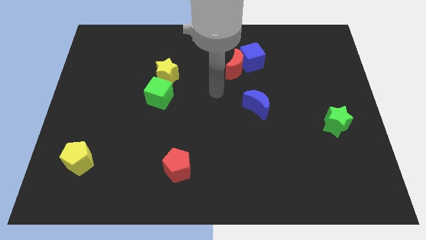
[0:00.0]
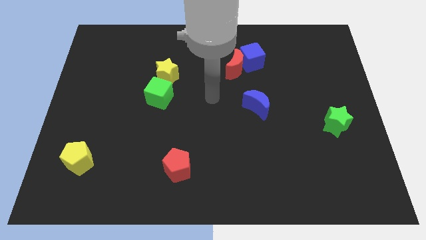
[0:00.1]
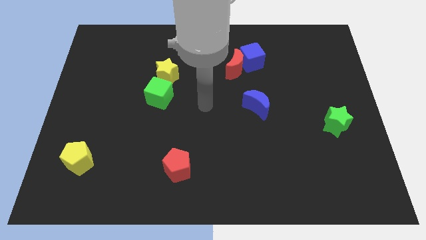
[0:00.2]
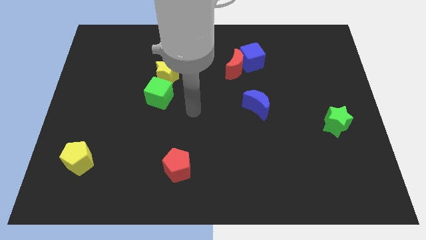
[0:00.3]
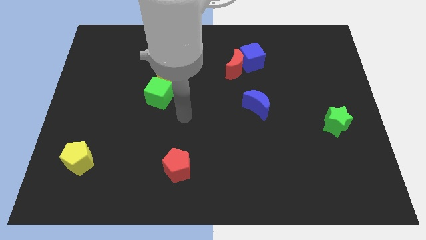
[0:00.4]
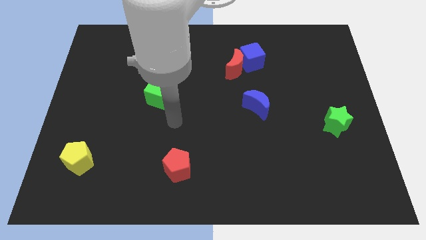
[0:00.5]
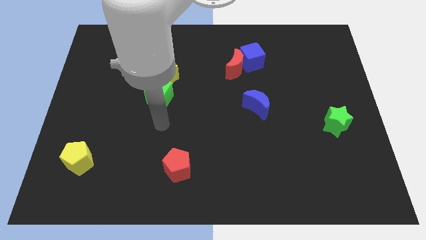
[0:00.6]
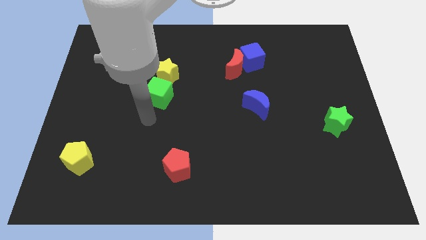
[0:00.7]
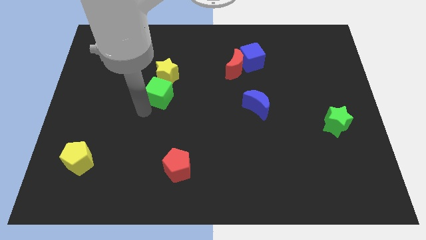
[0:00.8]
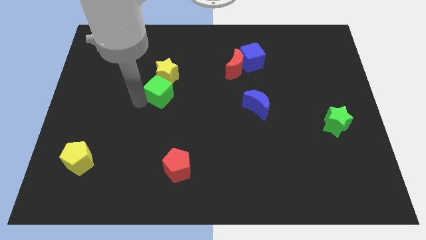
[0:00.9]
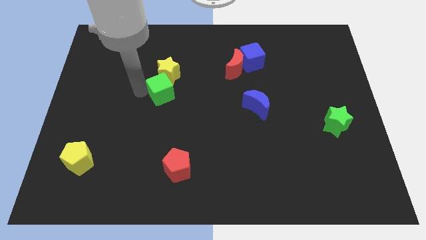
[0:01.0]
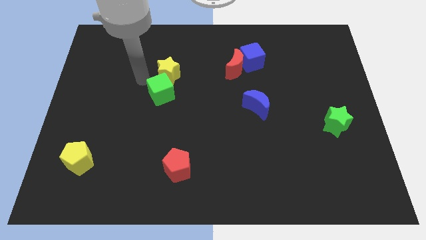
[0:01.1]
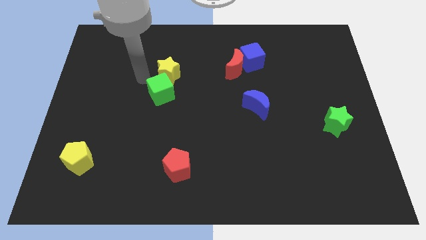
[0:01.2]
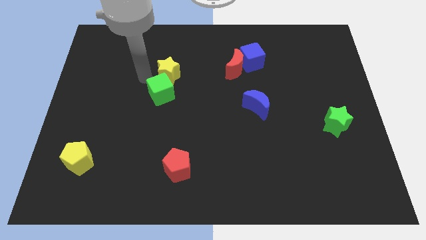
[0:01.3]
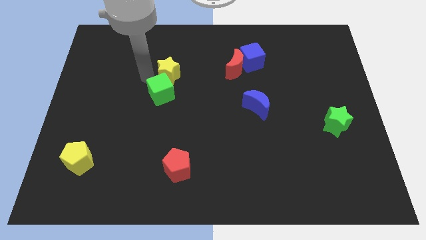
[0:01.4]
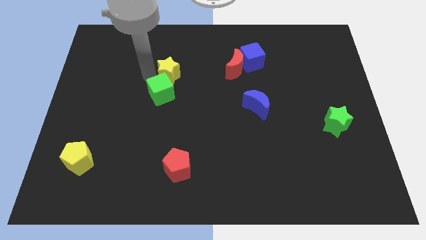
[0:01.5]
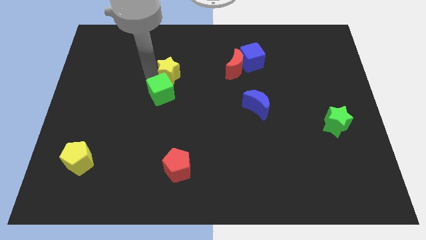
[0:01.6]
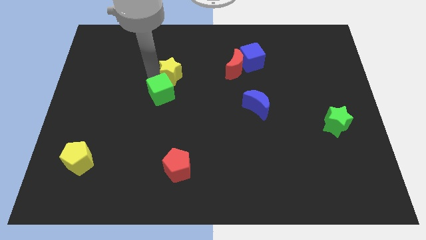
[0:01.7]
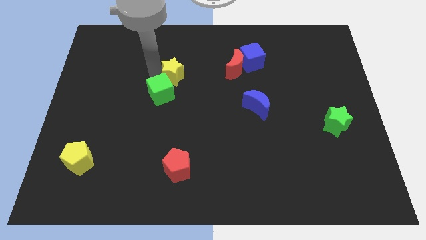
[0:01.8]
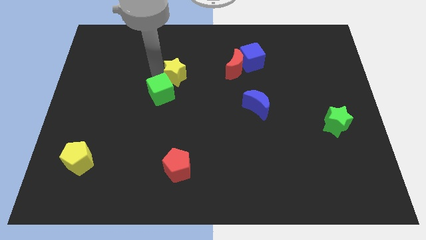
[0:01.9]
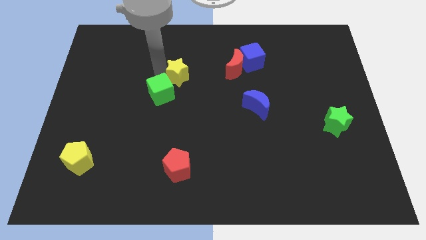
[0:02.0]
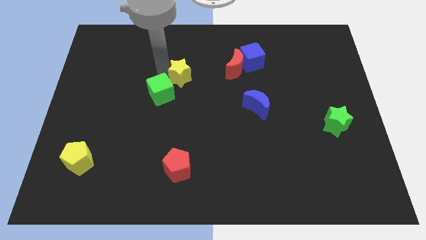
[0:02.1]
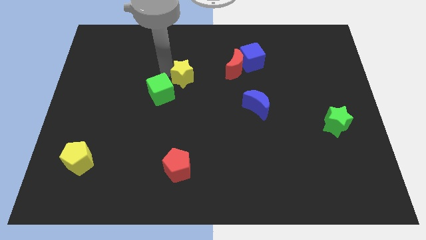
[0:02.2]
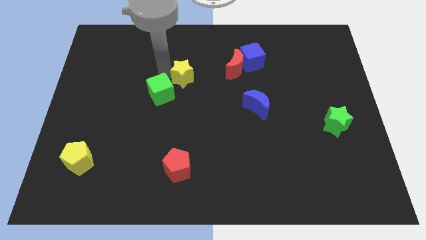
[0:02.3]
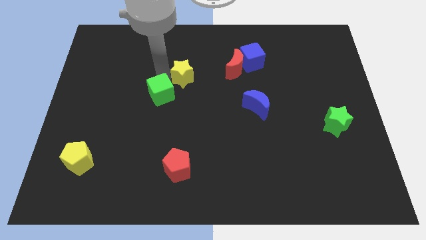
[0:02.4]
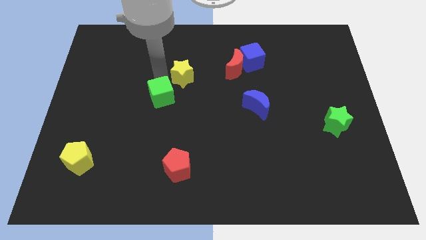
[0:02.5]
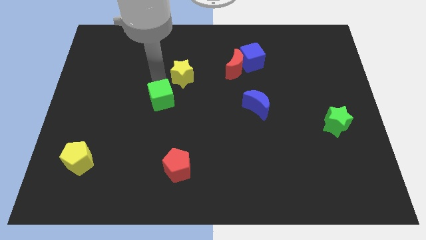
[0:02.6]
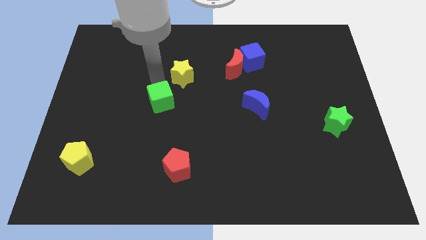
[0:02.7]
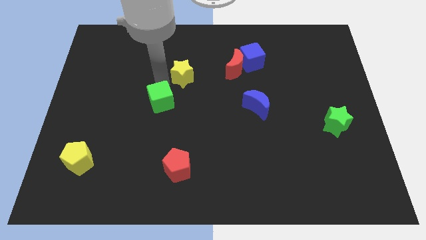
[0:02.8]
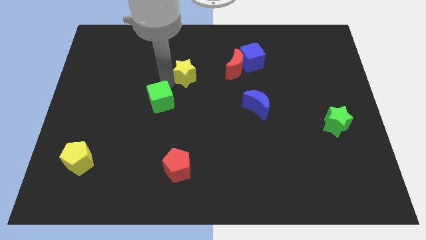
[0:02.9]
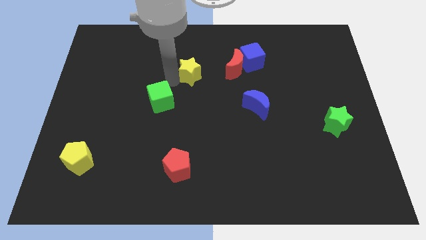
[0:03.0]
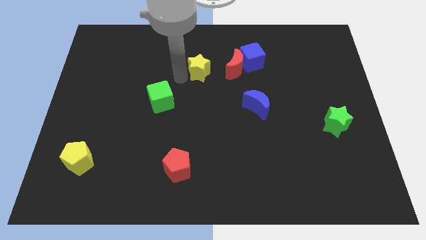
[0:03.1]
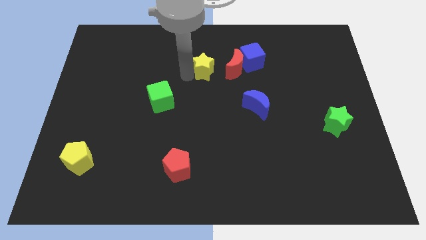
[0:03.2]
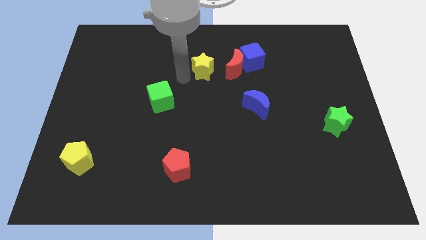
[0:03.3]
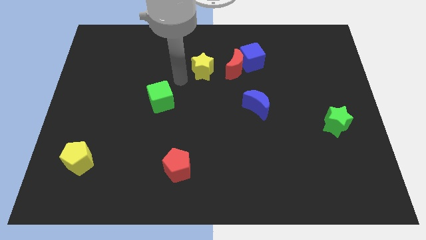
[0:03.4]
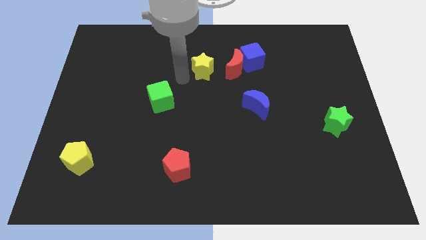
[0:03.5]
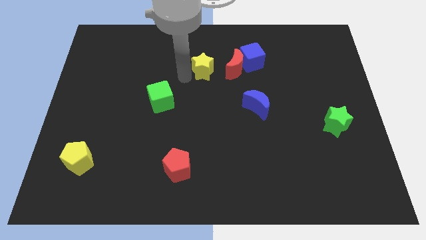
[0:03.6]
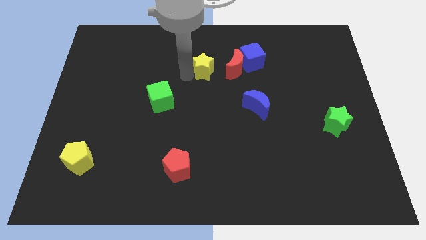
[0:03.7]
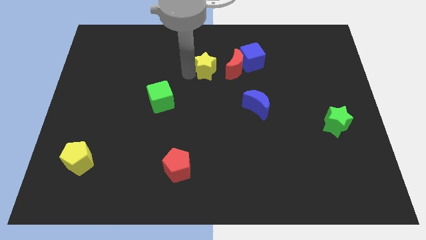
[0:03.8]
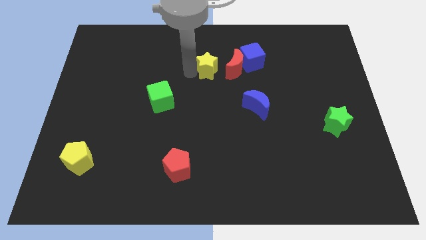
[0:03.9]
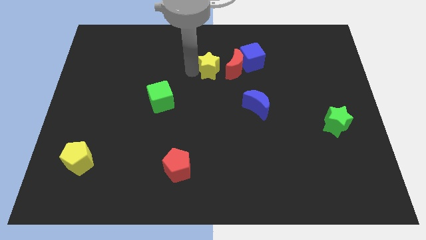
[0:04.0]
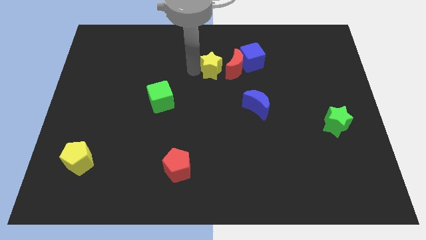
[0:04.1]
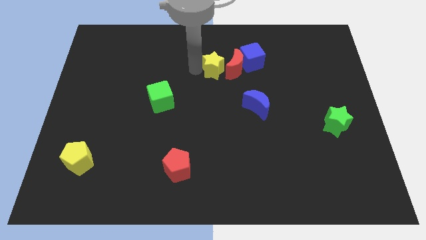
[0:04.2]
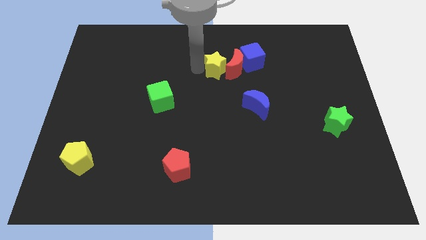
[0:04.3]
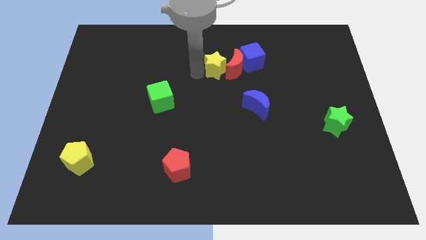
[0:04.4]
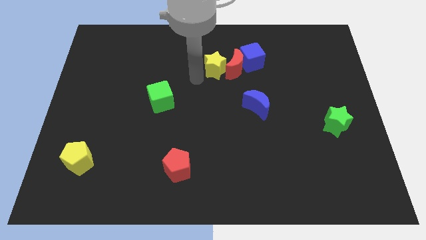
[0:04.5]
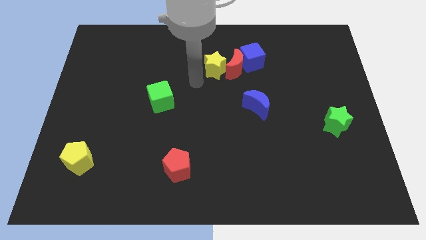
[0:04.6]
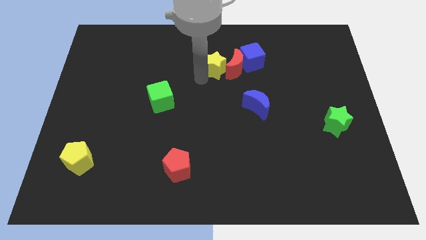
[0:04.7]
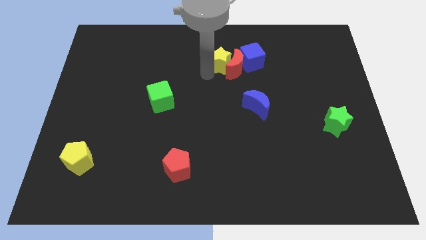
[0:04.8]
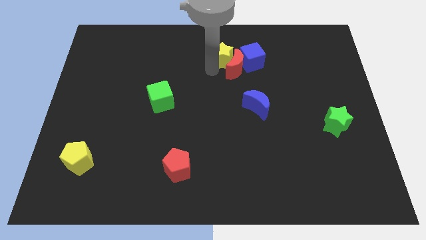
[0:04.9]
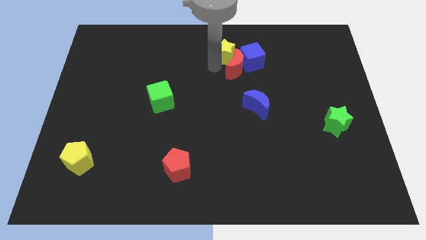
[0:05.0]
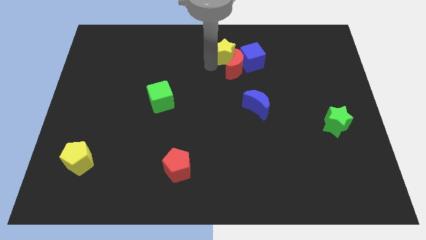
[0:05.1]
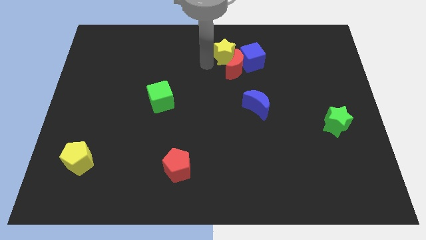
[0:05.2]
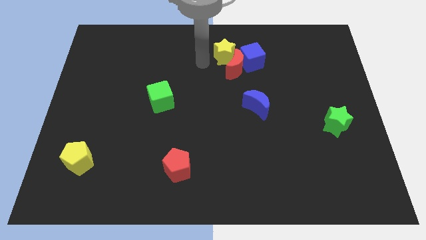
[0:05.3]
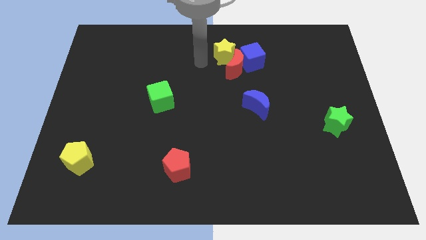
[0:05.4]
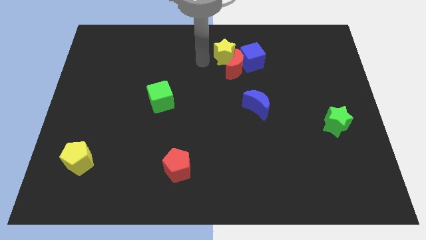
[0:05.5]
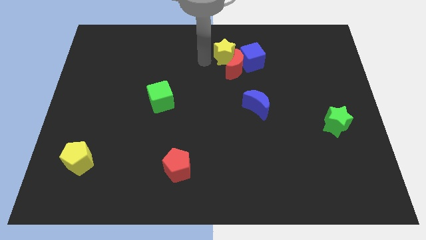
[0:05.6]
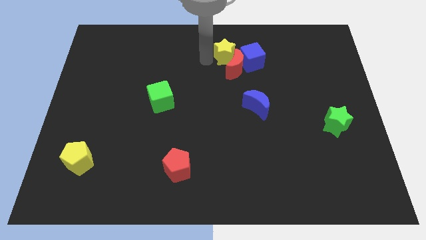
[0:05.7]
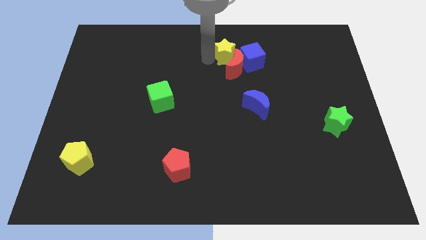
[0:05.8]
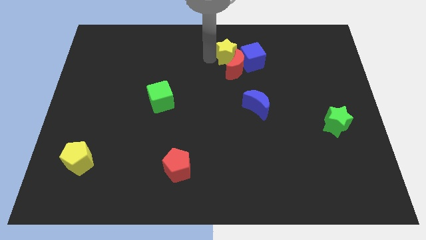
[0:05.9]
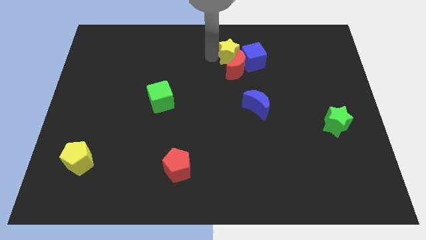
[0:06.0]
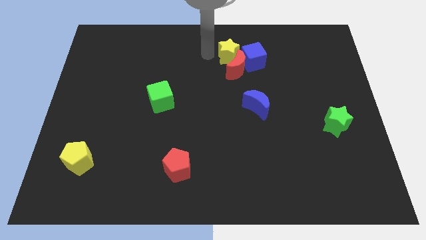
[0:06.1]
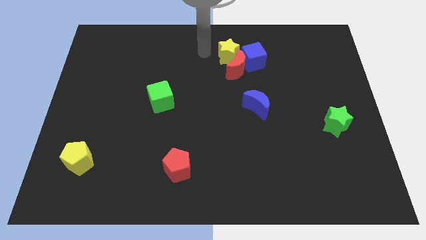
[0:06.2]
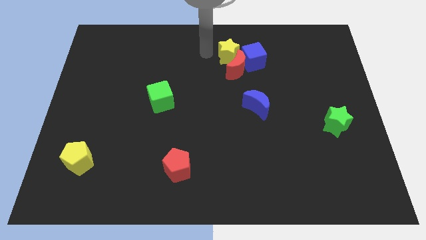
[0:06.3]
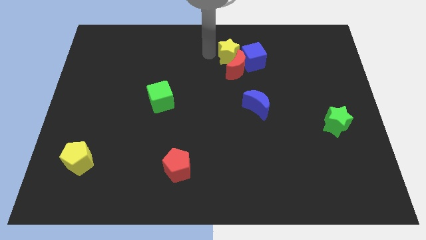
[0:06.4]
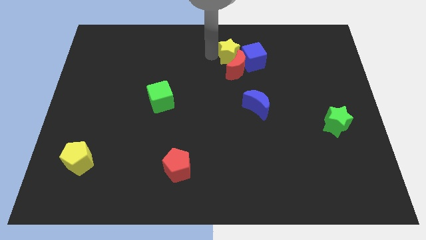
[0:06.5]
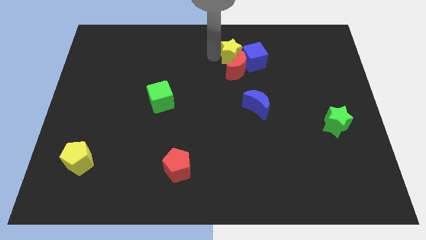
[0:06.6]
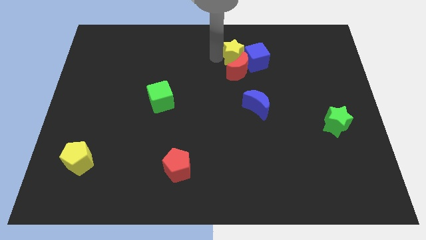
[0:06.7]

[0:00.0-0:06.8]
move the yellow star towards the blue cube

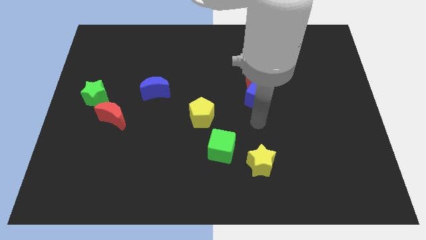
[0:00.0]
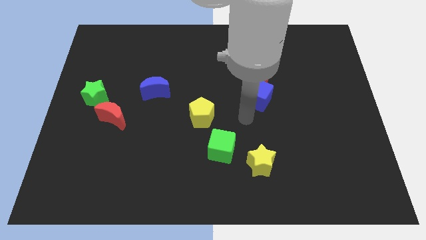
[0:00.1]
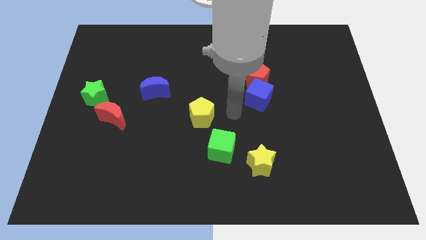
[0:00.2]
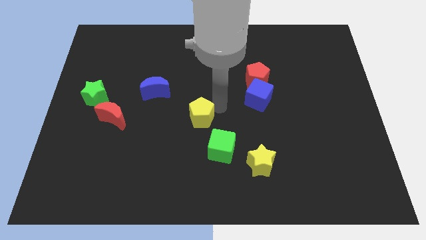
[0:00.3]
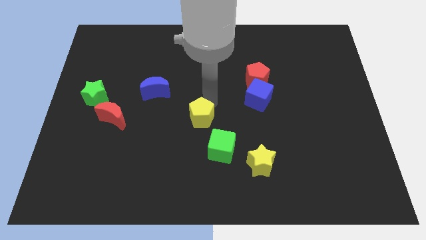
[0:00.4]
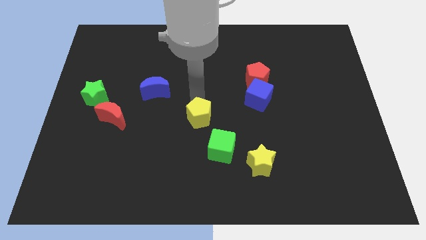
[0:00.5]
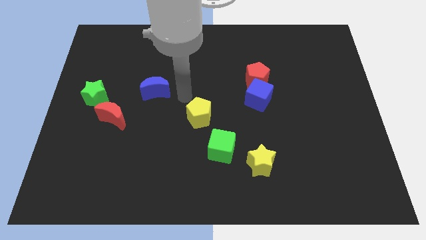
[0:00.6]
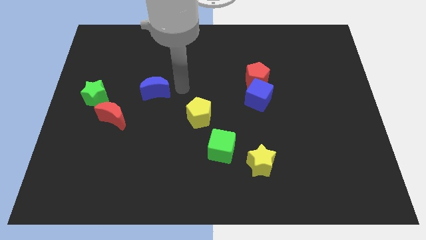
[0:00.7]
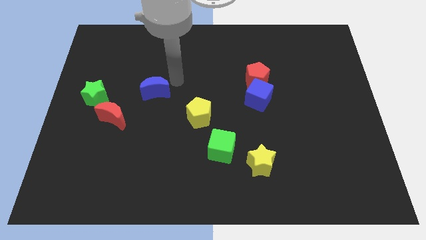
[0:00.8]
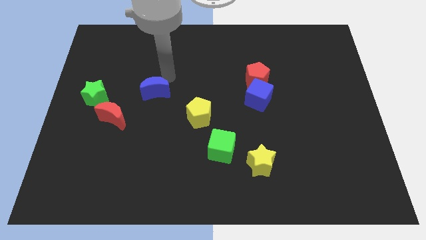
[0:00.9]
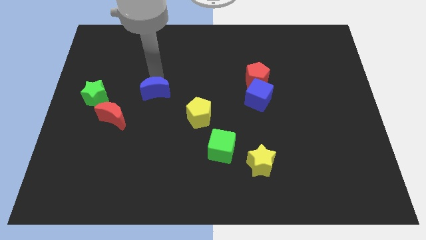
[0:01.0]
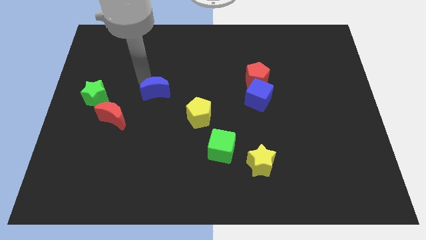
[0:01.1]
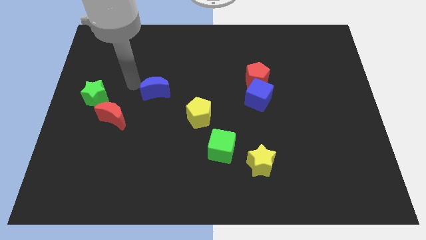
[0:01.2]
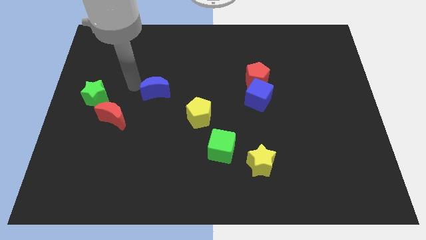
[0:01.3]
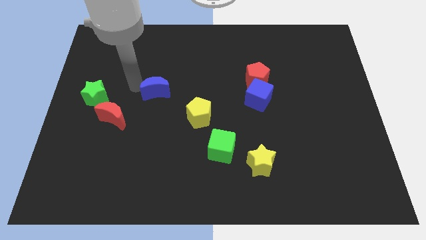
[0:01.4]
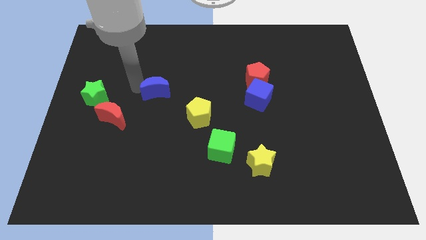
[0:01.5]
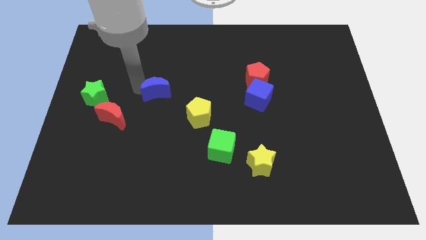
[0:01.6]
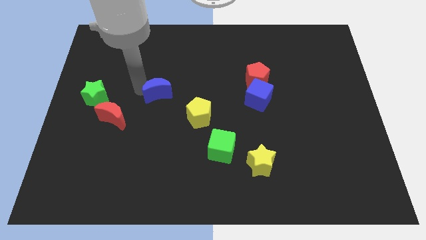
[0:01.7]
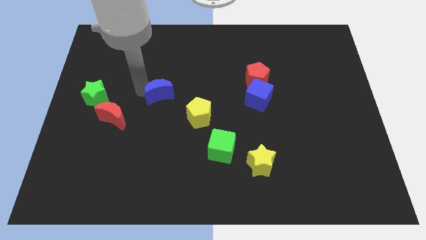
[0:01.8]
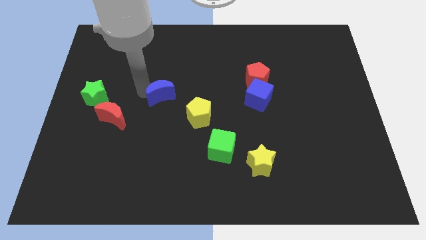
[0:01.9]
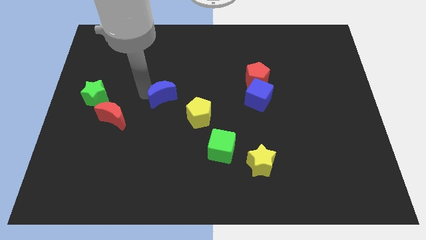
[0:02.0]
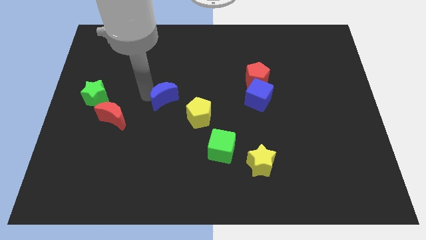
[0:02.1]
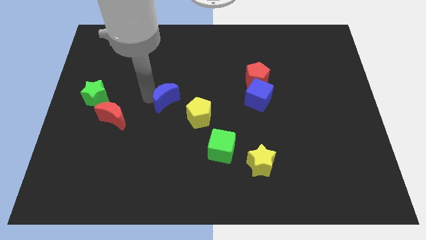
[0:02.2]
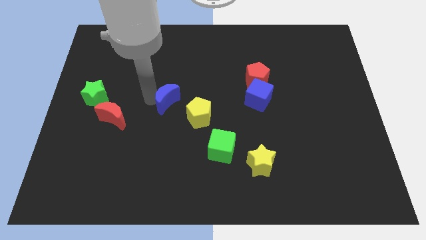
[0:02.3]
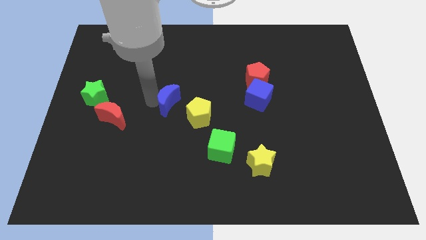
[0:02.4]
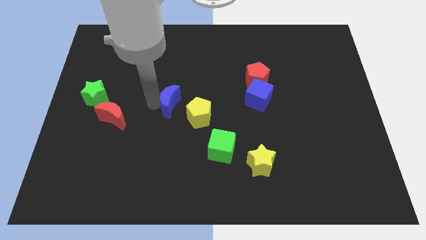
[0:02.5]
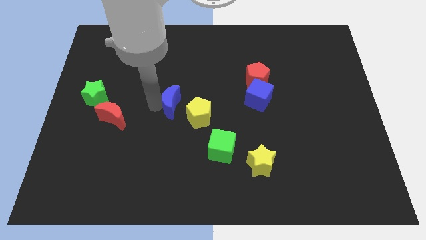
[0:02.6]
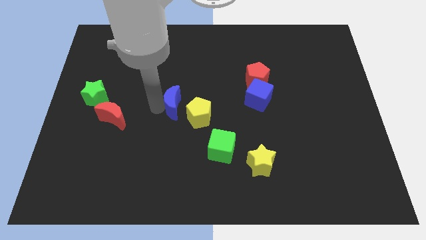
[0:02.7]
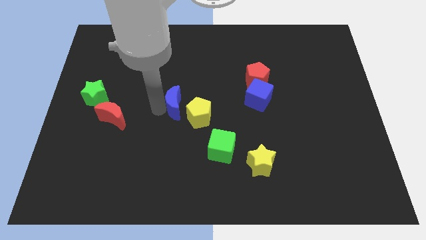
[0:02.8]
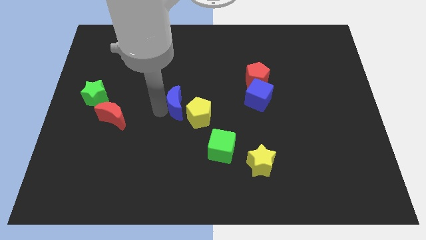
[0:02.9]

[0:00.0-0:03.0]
move the blue moon towards the yellow pentagon
